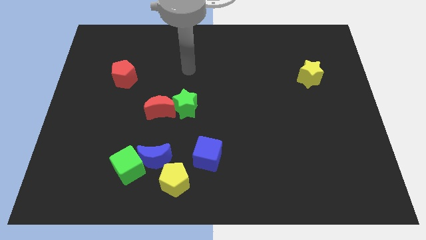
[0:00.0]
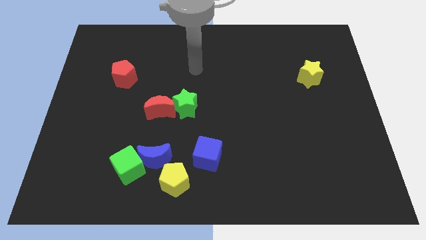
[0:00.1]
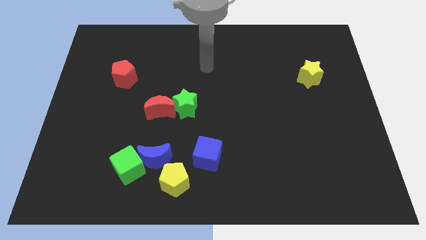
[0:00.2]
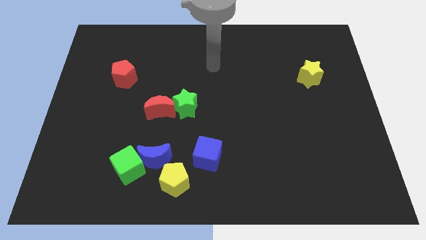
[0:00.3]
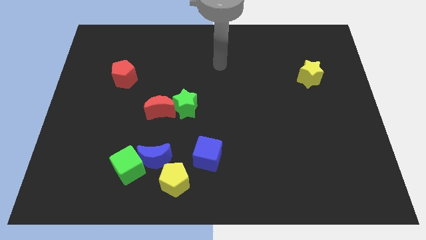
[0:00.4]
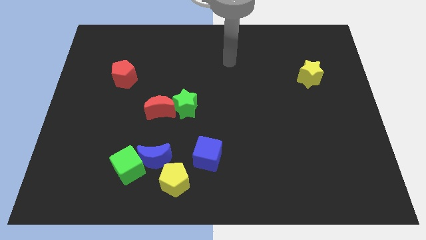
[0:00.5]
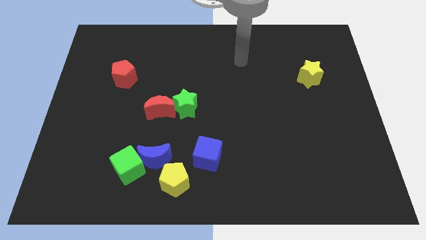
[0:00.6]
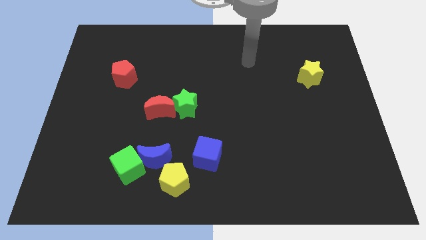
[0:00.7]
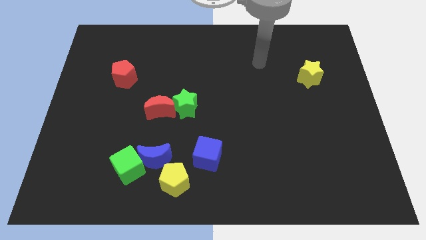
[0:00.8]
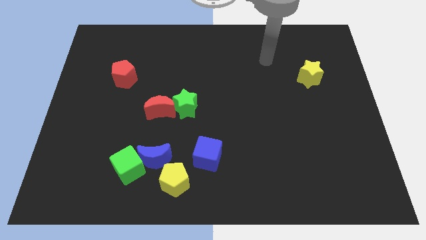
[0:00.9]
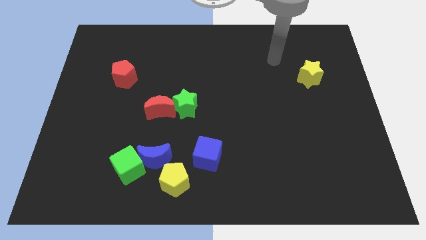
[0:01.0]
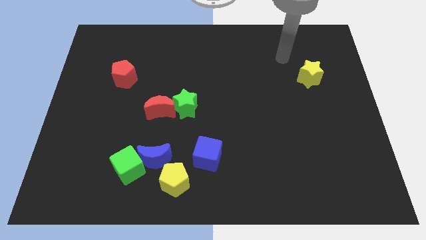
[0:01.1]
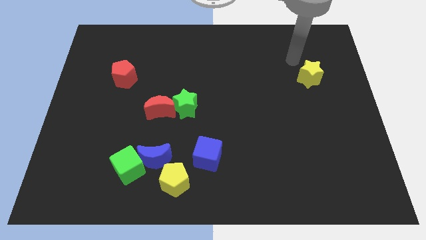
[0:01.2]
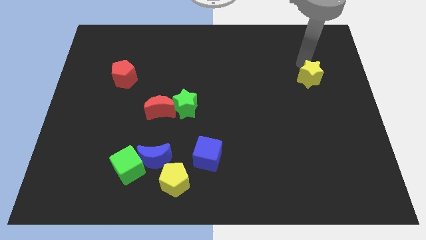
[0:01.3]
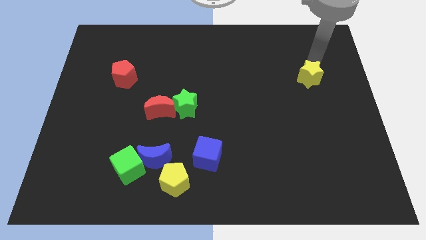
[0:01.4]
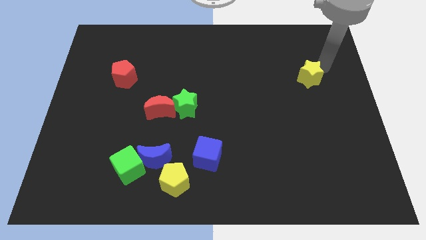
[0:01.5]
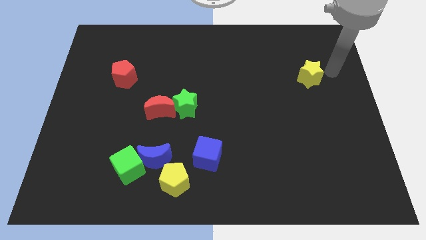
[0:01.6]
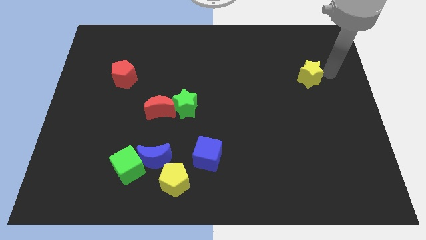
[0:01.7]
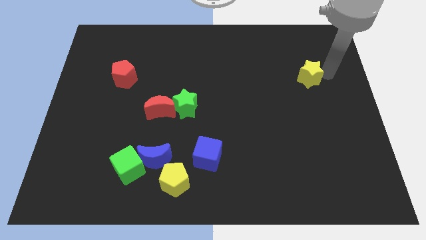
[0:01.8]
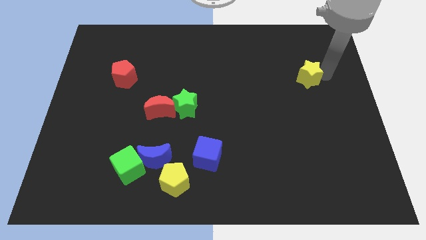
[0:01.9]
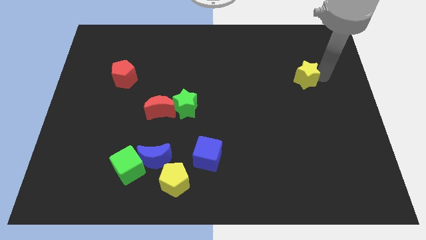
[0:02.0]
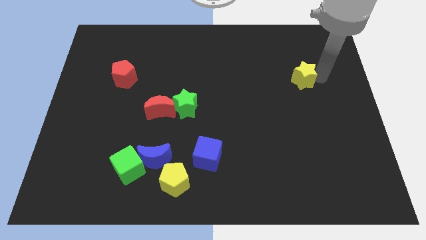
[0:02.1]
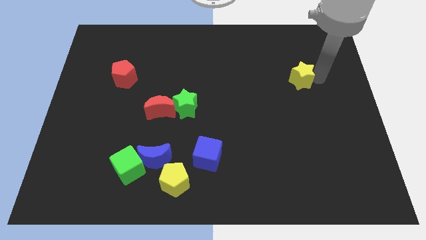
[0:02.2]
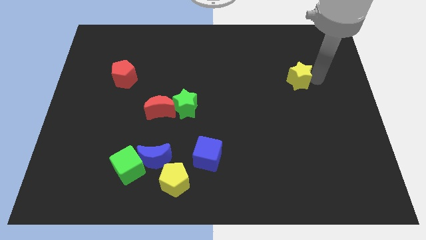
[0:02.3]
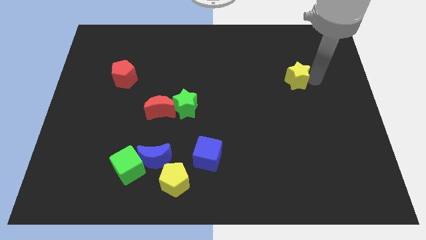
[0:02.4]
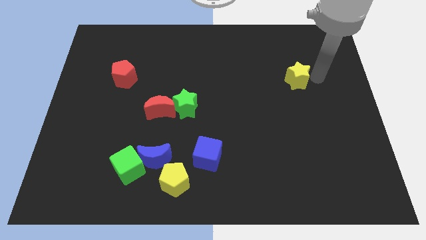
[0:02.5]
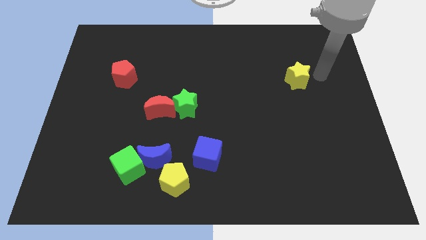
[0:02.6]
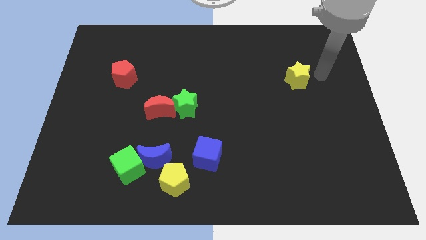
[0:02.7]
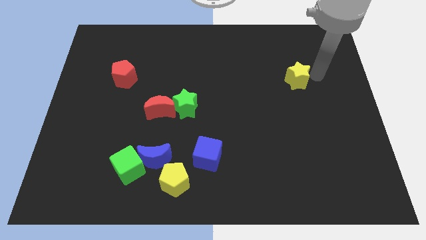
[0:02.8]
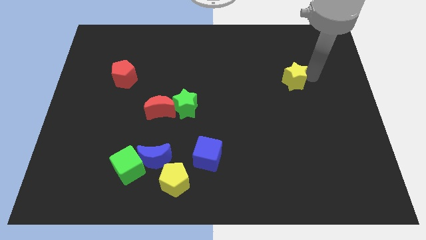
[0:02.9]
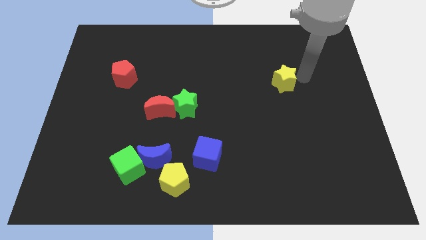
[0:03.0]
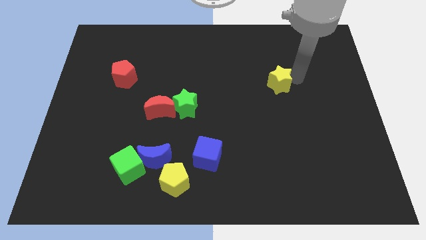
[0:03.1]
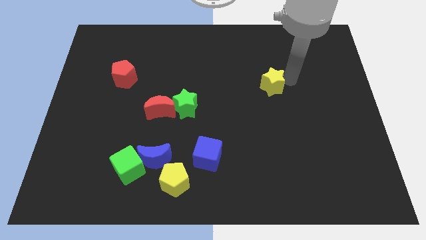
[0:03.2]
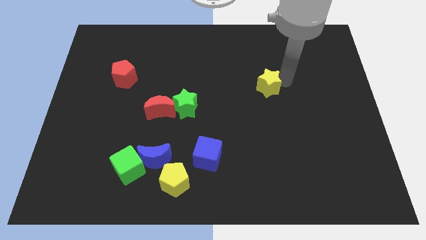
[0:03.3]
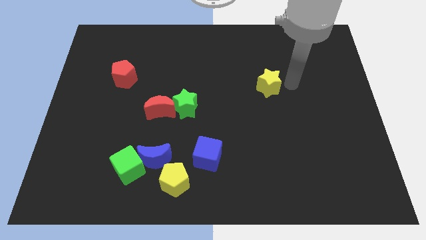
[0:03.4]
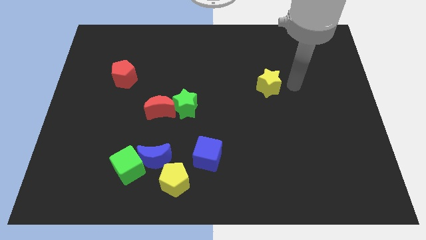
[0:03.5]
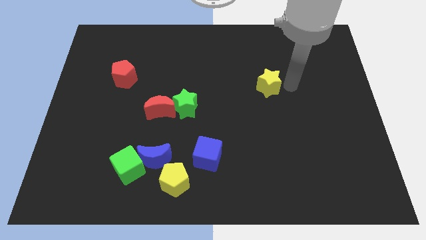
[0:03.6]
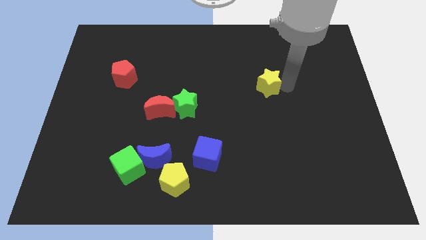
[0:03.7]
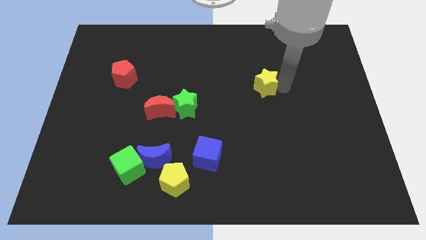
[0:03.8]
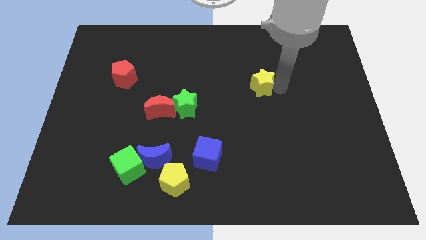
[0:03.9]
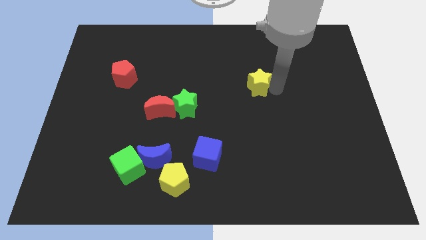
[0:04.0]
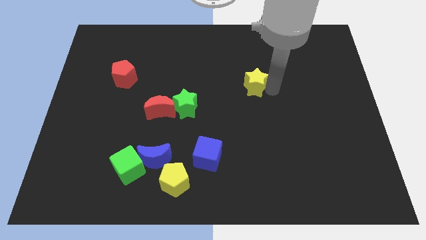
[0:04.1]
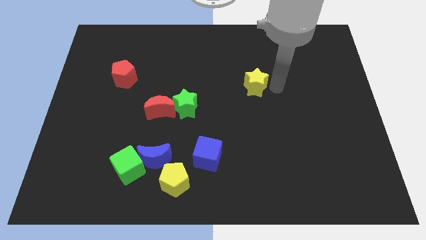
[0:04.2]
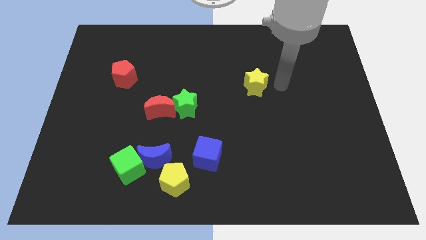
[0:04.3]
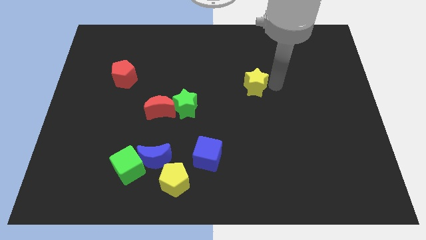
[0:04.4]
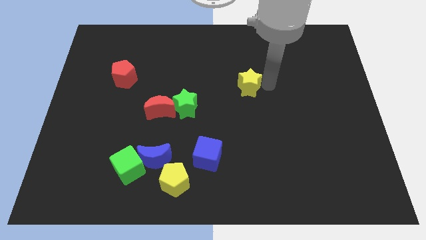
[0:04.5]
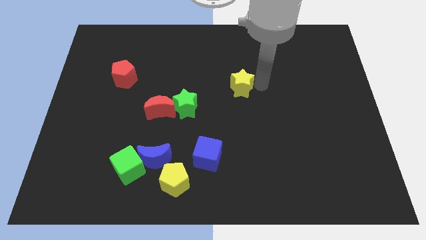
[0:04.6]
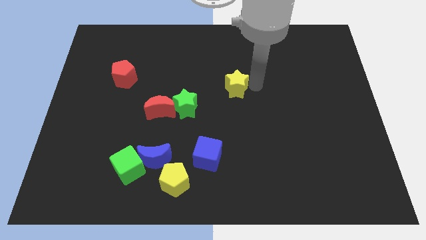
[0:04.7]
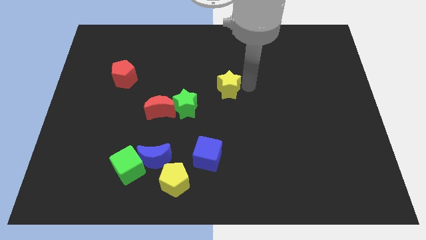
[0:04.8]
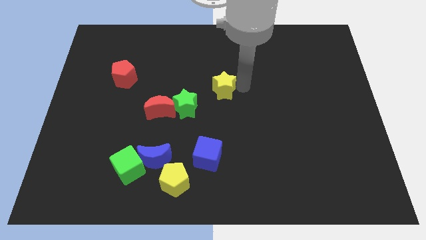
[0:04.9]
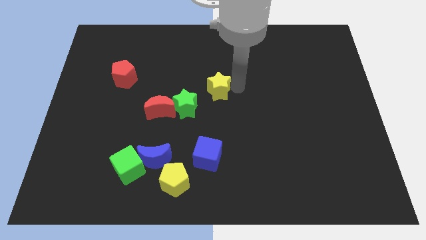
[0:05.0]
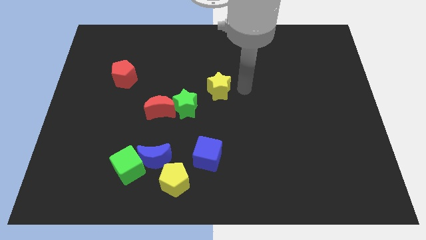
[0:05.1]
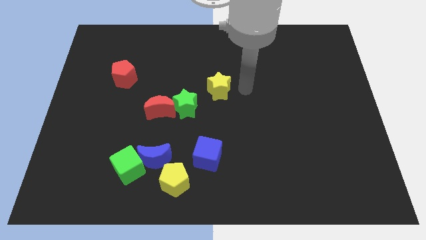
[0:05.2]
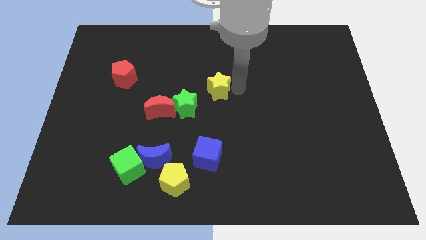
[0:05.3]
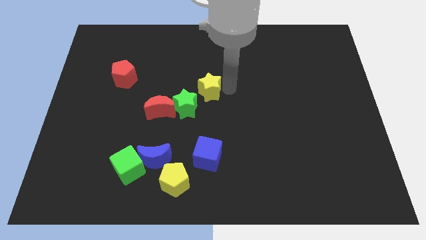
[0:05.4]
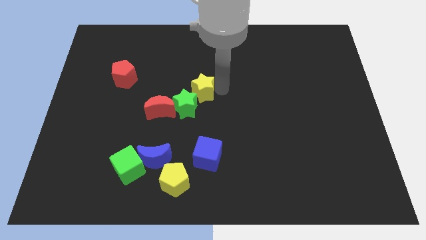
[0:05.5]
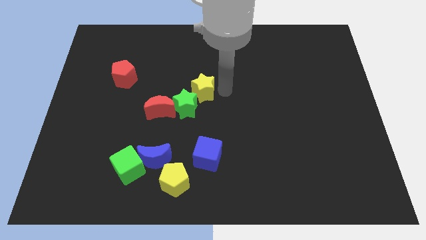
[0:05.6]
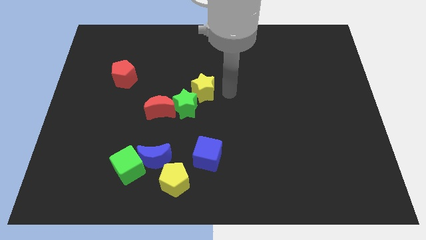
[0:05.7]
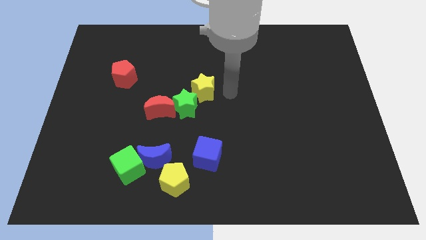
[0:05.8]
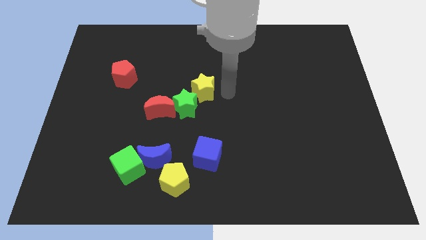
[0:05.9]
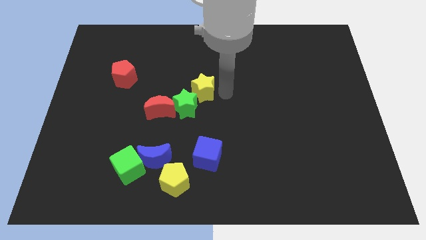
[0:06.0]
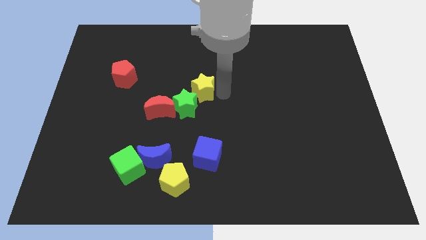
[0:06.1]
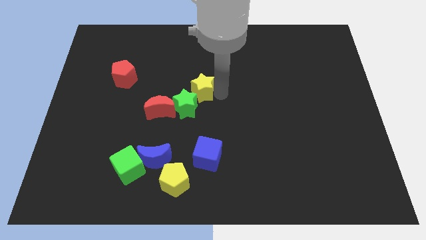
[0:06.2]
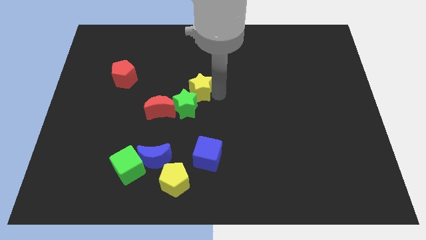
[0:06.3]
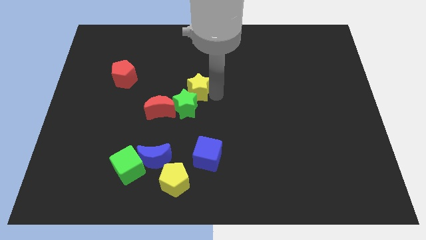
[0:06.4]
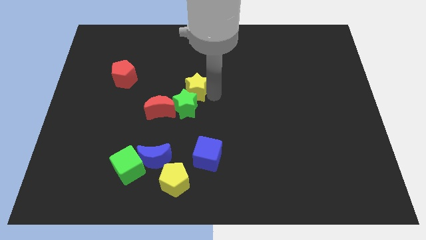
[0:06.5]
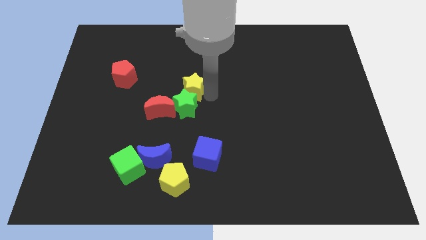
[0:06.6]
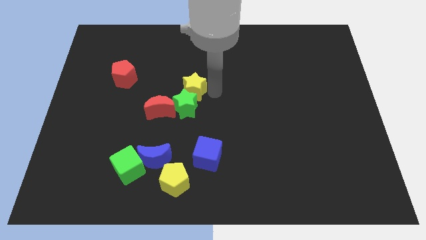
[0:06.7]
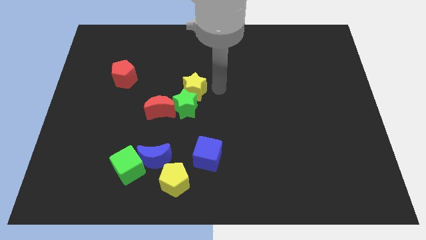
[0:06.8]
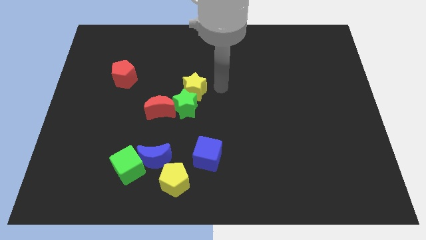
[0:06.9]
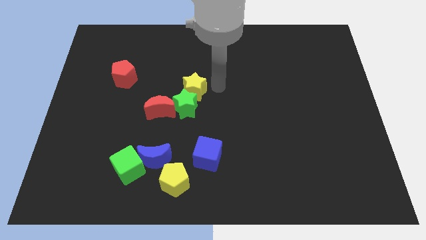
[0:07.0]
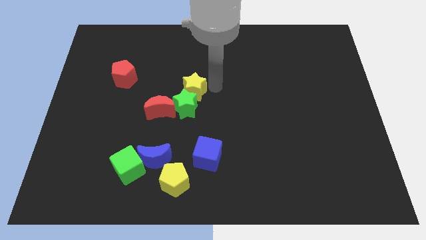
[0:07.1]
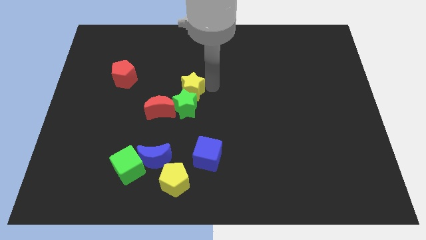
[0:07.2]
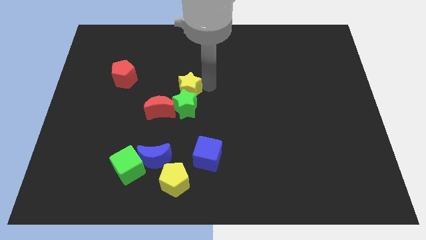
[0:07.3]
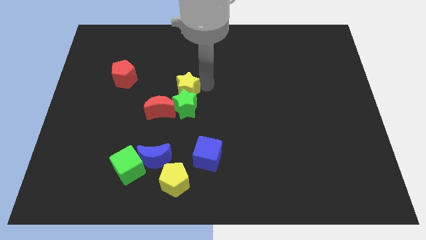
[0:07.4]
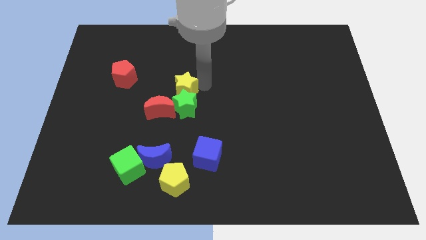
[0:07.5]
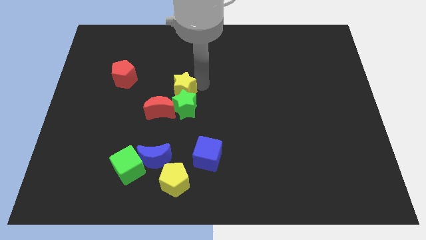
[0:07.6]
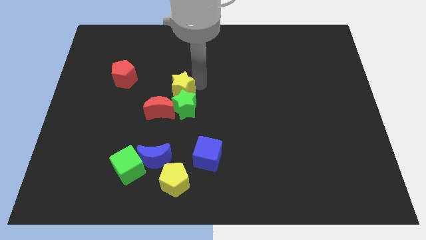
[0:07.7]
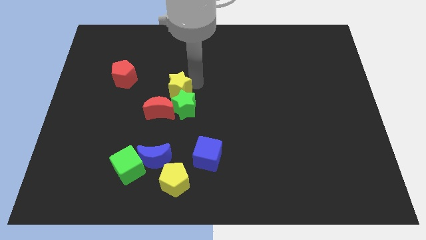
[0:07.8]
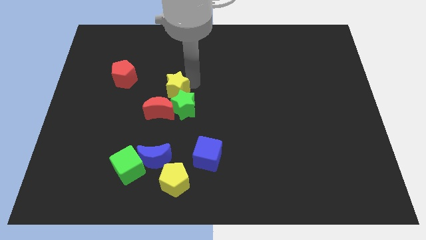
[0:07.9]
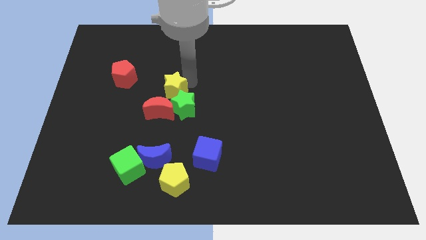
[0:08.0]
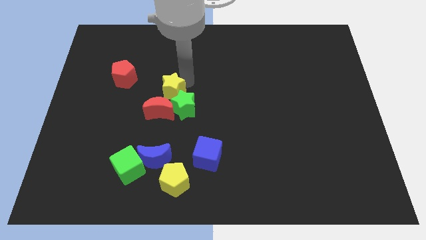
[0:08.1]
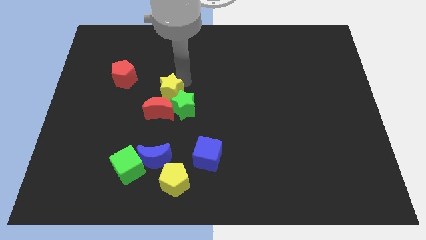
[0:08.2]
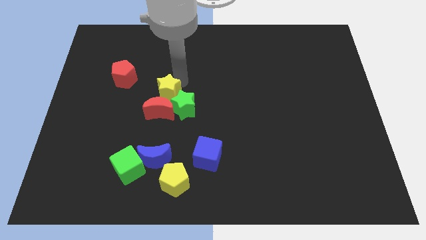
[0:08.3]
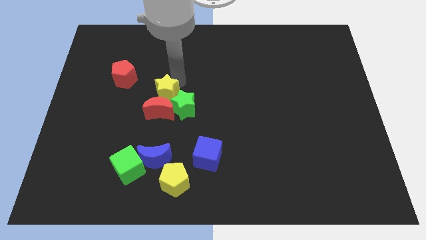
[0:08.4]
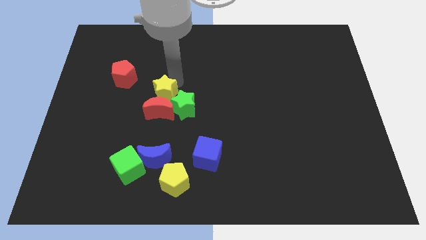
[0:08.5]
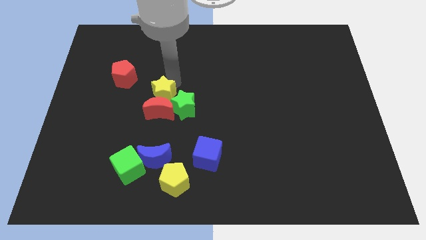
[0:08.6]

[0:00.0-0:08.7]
move the yellow star just left of the green star

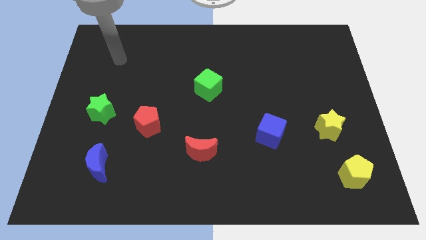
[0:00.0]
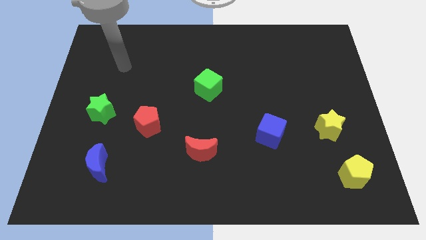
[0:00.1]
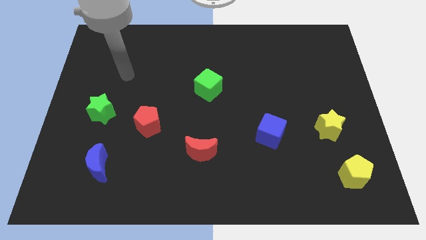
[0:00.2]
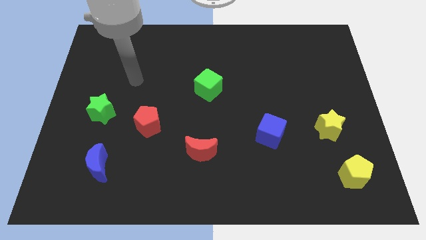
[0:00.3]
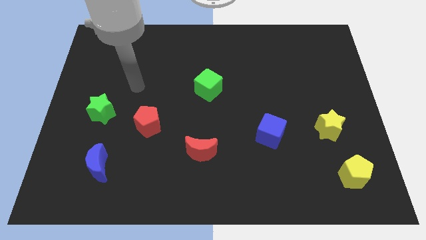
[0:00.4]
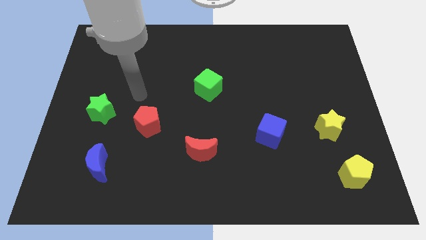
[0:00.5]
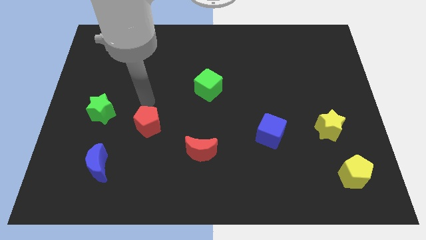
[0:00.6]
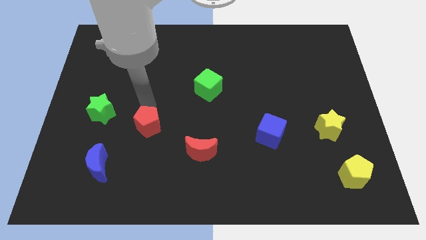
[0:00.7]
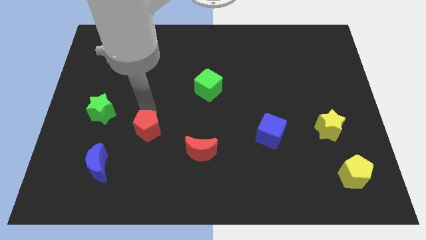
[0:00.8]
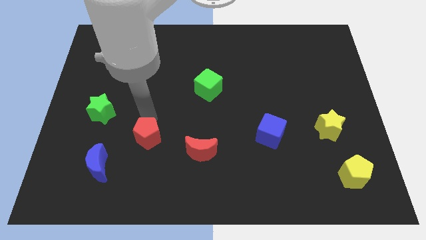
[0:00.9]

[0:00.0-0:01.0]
slide the red pentagon to the left of the red moon
